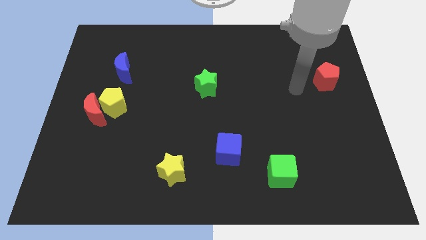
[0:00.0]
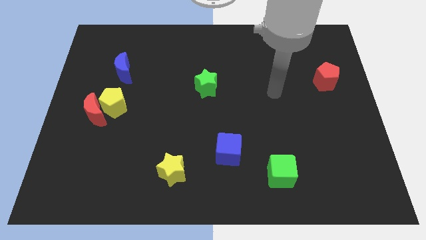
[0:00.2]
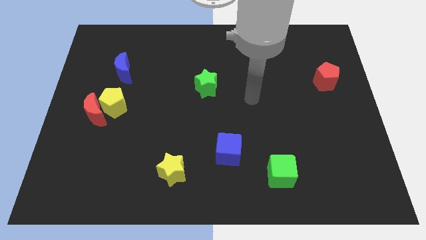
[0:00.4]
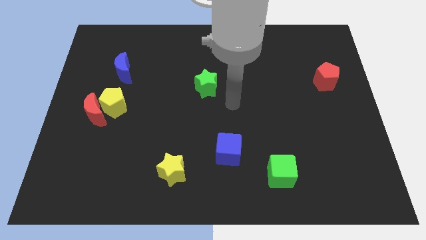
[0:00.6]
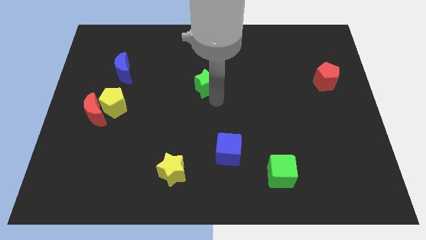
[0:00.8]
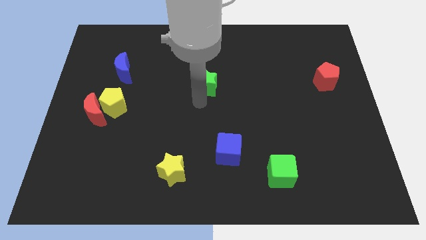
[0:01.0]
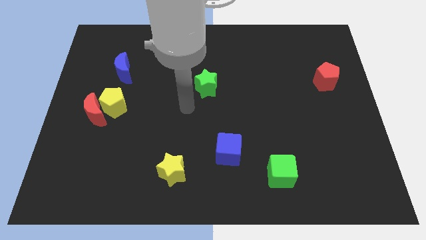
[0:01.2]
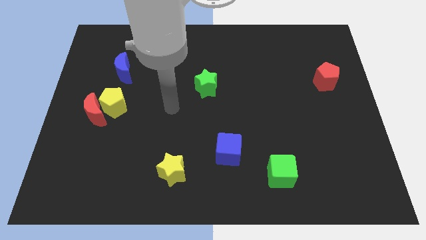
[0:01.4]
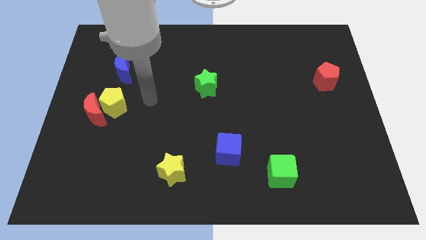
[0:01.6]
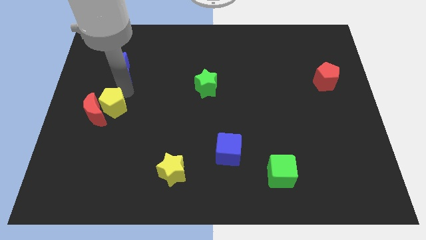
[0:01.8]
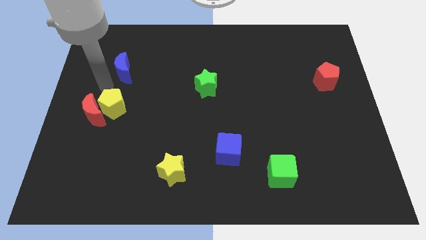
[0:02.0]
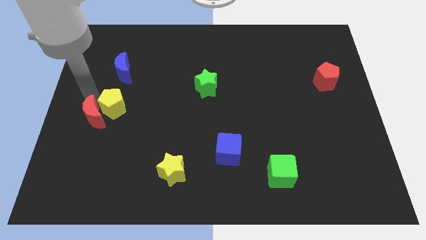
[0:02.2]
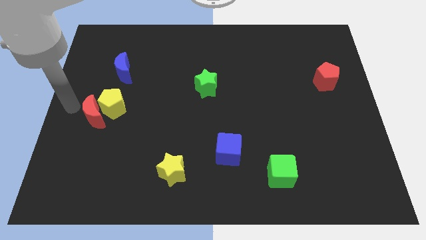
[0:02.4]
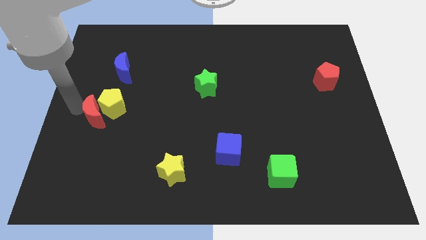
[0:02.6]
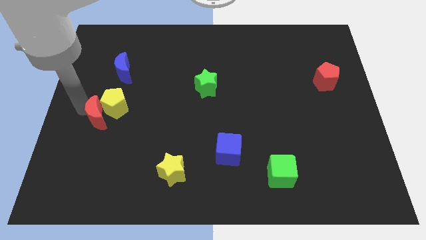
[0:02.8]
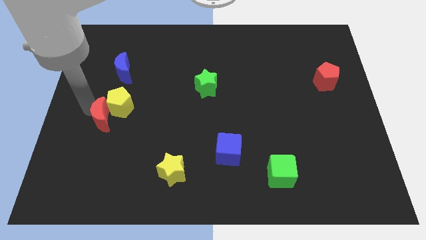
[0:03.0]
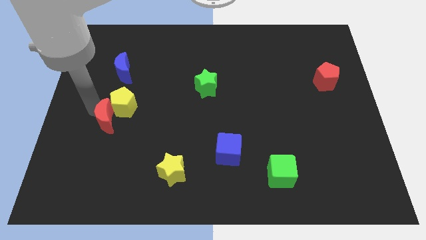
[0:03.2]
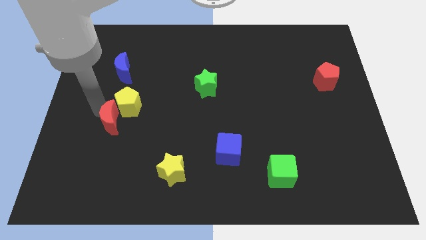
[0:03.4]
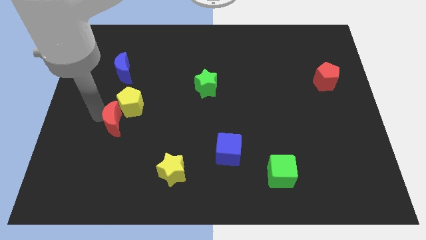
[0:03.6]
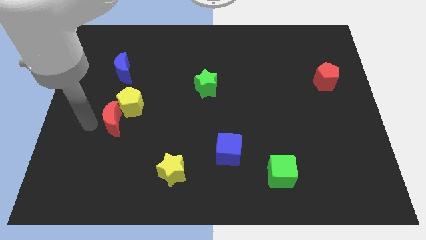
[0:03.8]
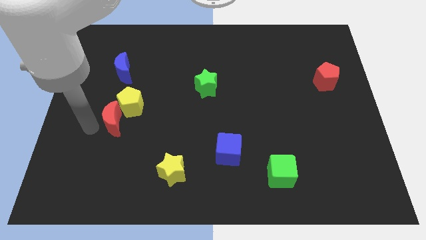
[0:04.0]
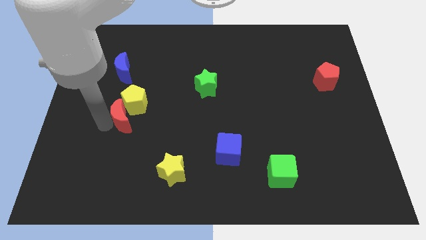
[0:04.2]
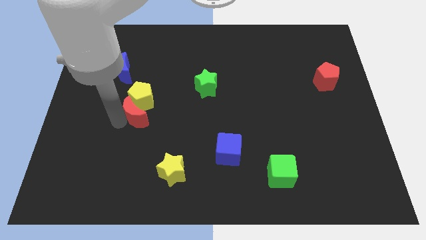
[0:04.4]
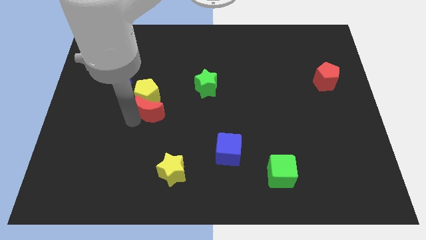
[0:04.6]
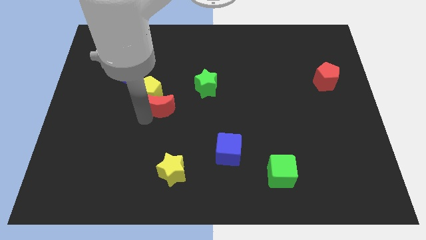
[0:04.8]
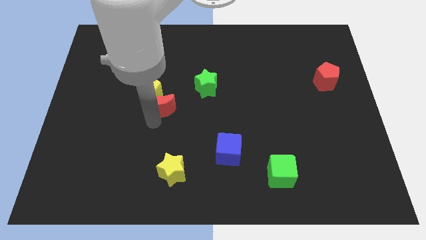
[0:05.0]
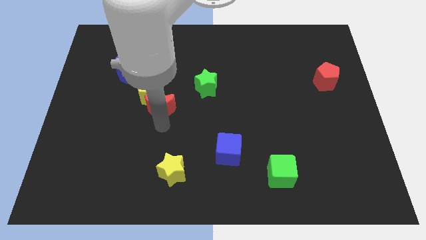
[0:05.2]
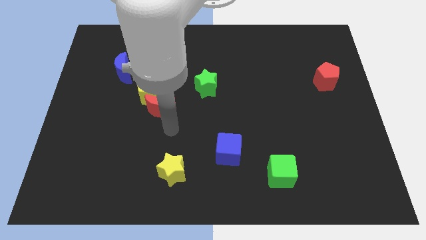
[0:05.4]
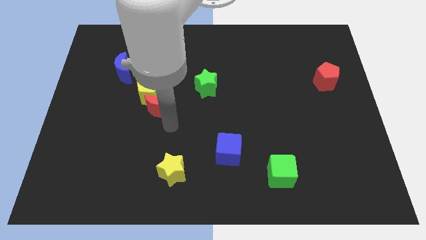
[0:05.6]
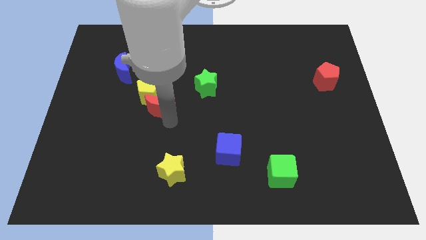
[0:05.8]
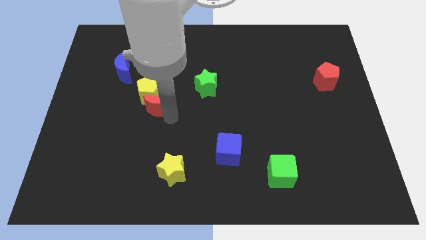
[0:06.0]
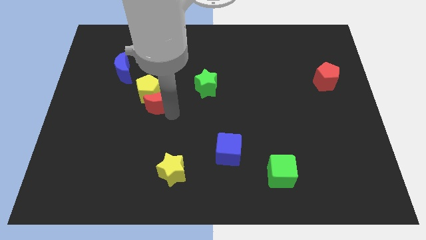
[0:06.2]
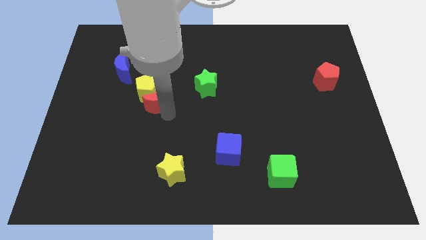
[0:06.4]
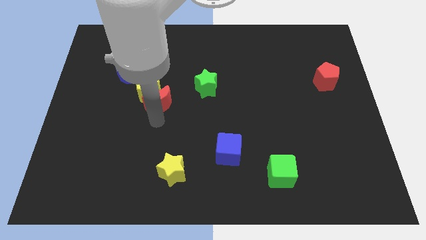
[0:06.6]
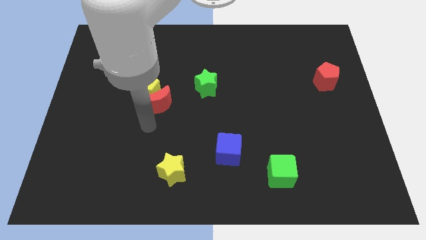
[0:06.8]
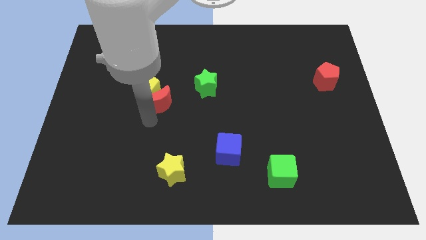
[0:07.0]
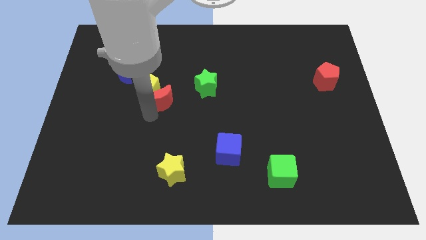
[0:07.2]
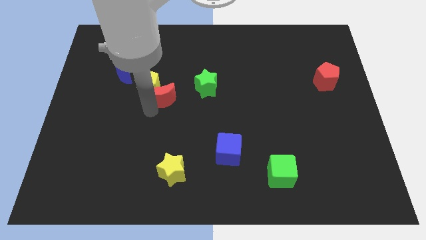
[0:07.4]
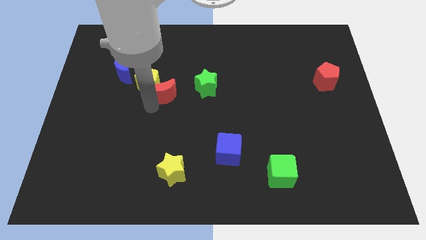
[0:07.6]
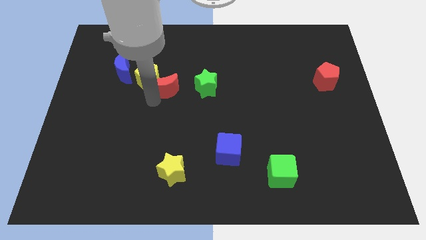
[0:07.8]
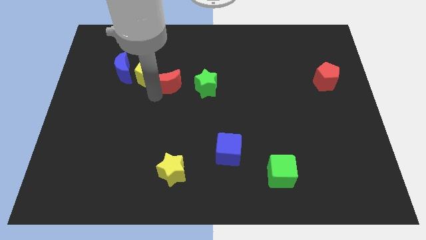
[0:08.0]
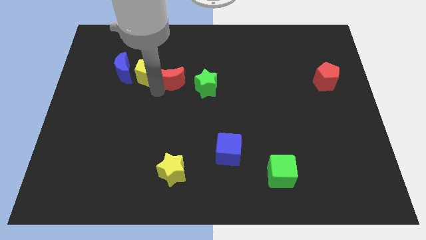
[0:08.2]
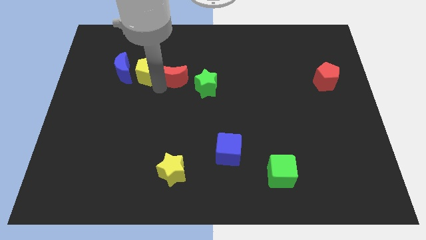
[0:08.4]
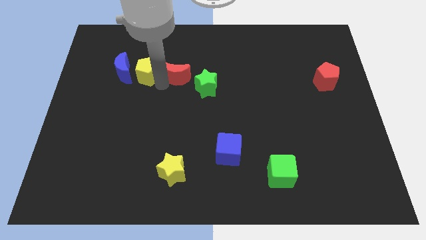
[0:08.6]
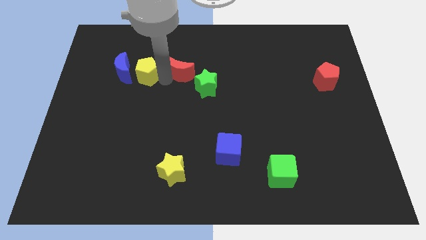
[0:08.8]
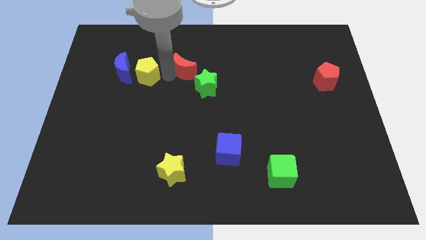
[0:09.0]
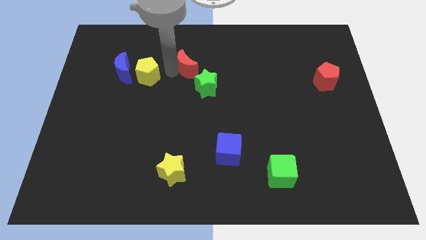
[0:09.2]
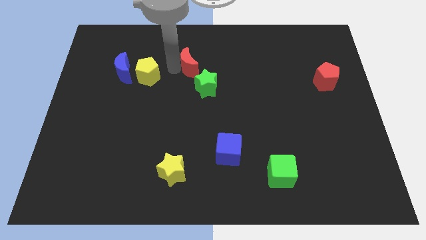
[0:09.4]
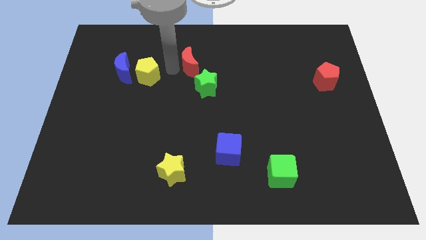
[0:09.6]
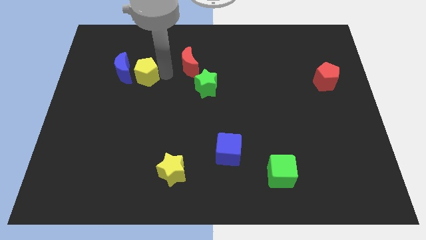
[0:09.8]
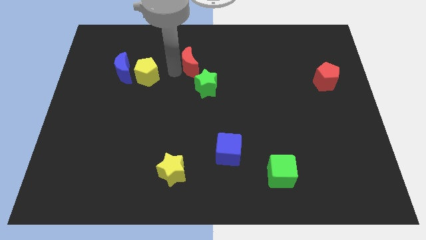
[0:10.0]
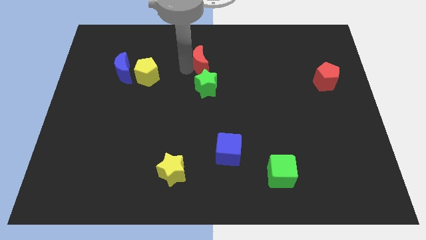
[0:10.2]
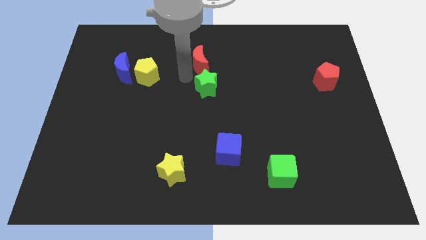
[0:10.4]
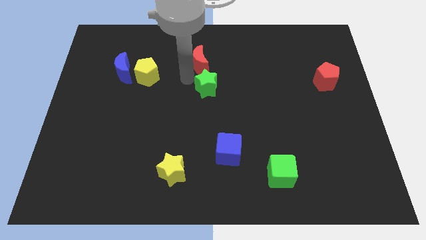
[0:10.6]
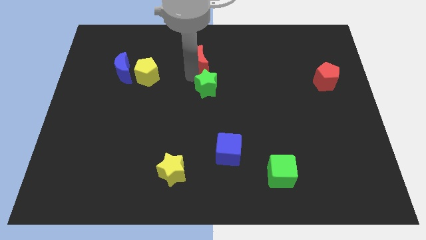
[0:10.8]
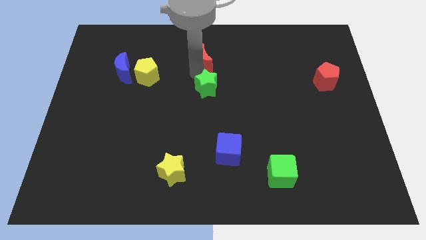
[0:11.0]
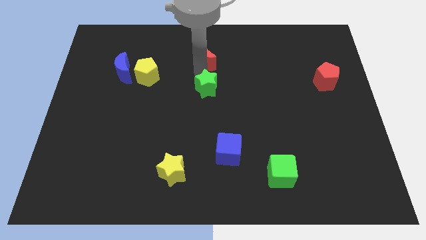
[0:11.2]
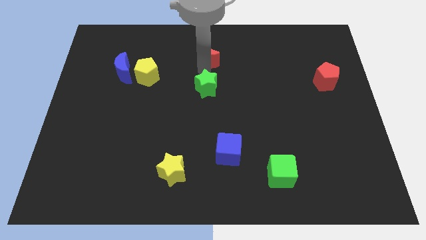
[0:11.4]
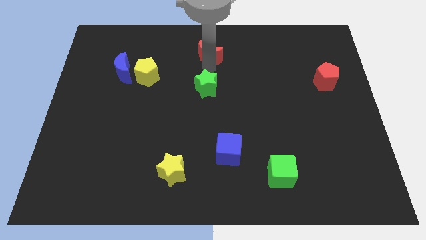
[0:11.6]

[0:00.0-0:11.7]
slide the red moon to the top side
